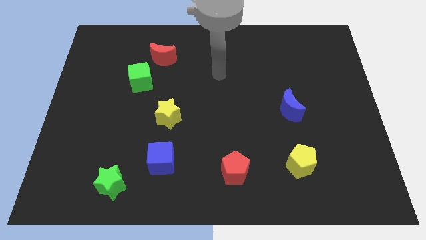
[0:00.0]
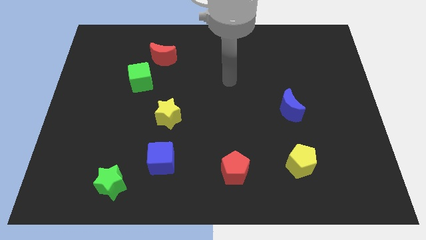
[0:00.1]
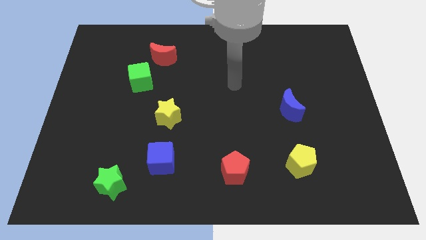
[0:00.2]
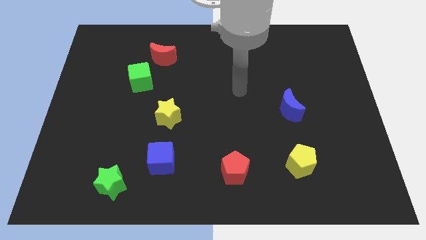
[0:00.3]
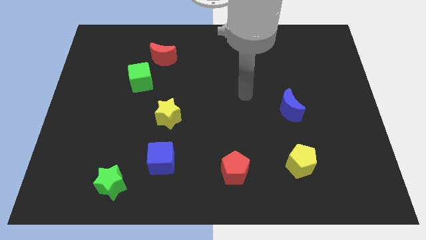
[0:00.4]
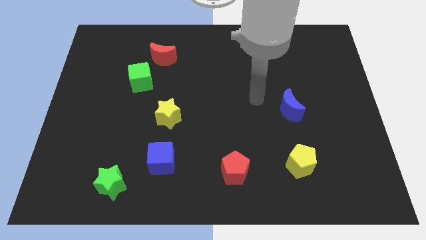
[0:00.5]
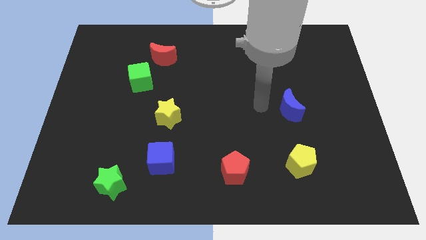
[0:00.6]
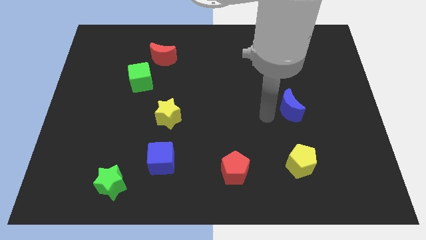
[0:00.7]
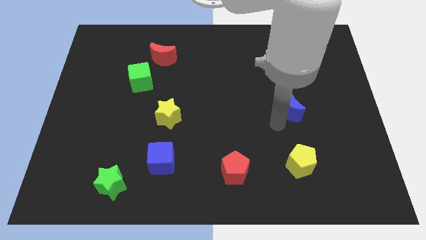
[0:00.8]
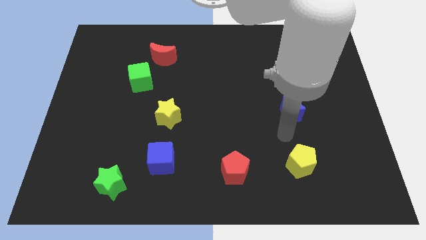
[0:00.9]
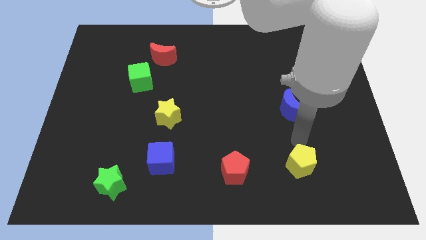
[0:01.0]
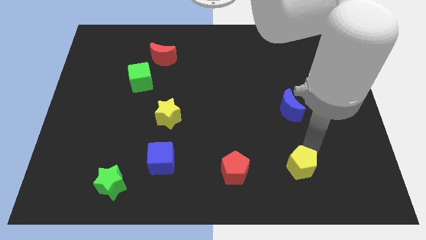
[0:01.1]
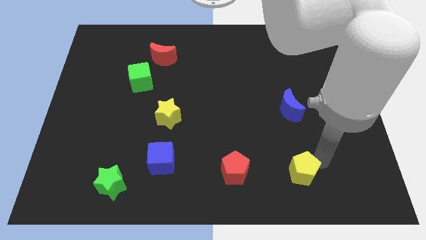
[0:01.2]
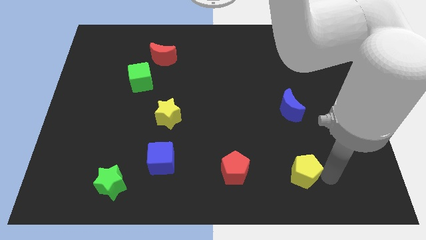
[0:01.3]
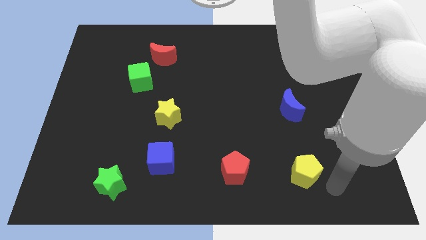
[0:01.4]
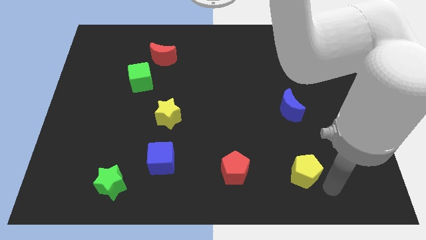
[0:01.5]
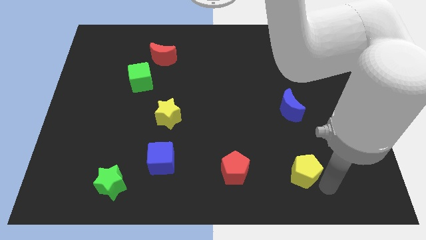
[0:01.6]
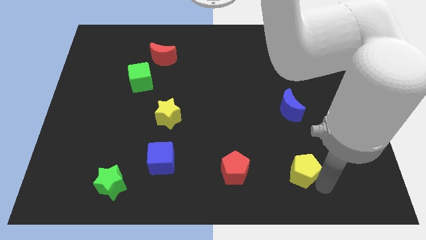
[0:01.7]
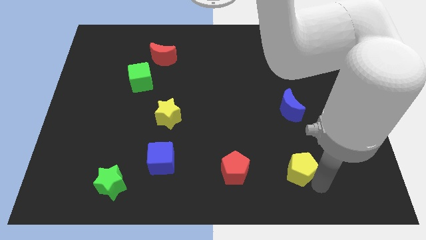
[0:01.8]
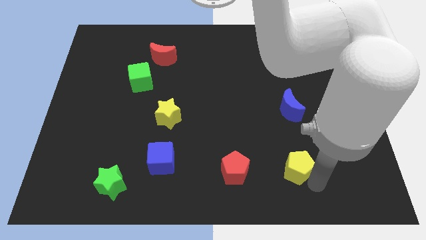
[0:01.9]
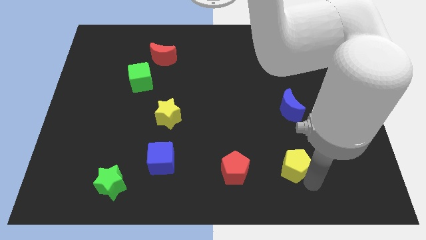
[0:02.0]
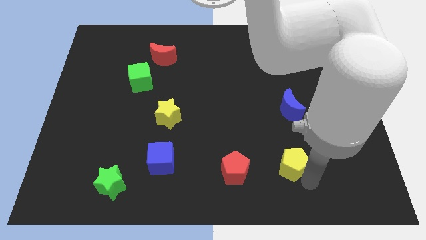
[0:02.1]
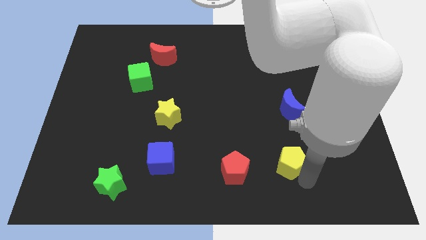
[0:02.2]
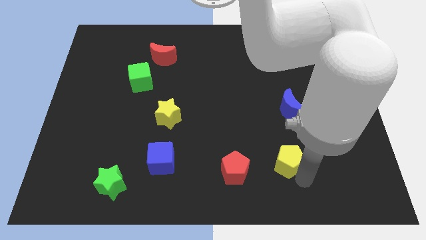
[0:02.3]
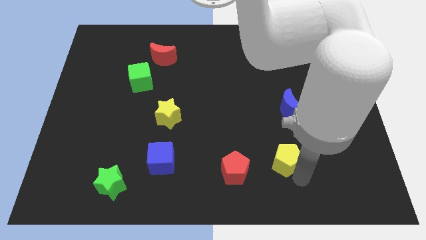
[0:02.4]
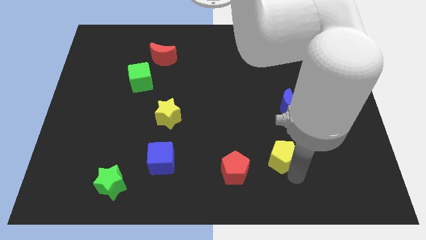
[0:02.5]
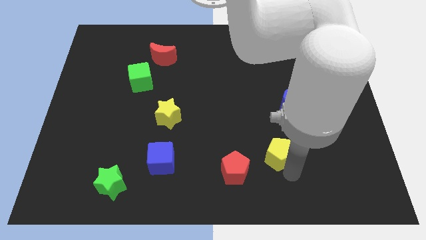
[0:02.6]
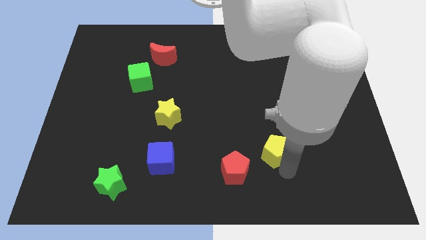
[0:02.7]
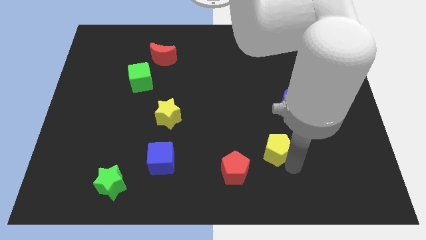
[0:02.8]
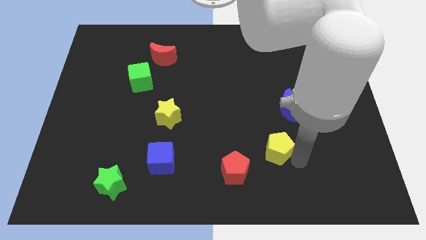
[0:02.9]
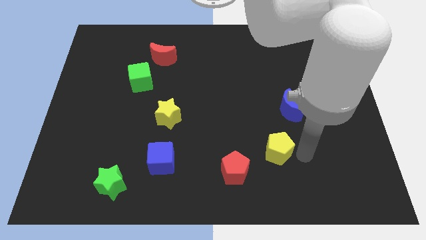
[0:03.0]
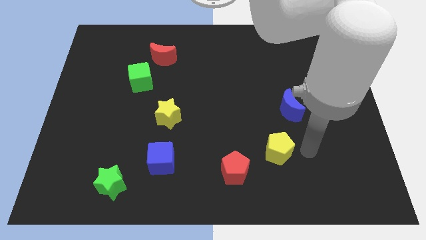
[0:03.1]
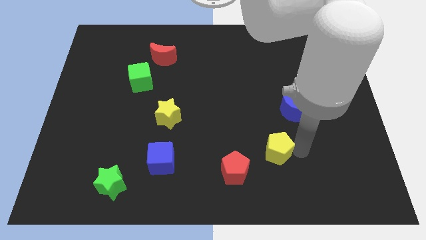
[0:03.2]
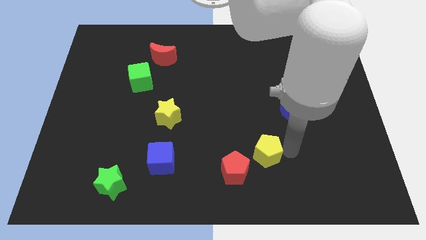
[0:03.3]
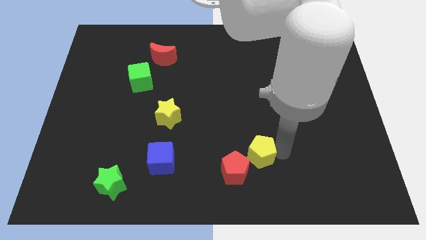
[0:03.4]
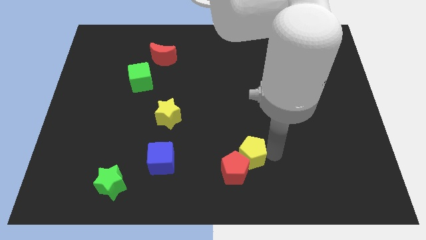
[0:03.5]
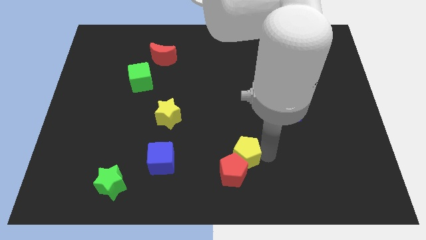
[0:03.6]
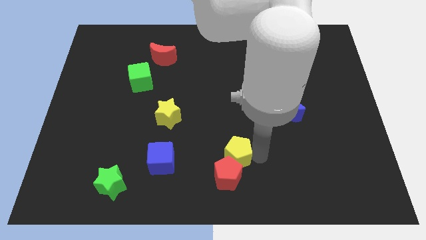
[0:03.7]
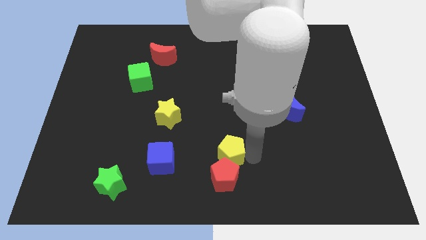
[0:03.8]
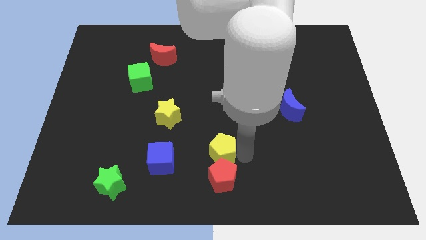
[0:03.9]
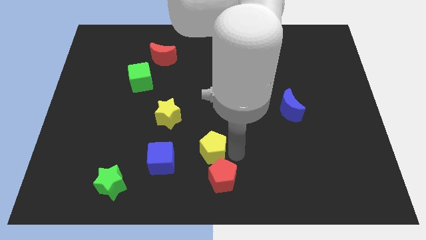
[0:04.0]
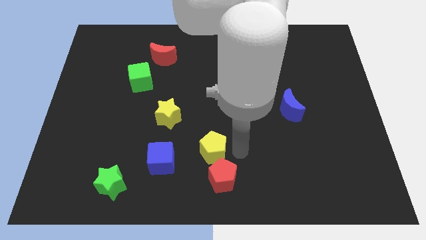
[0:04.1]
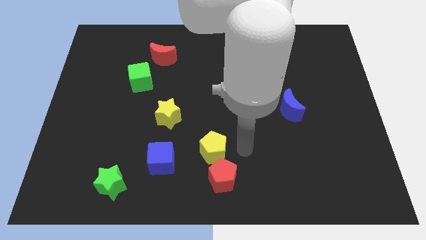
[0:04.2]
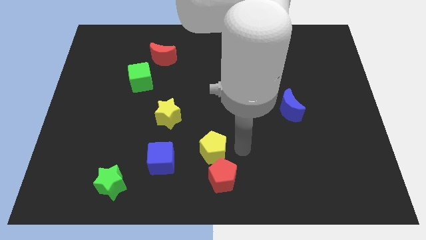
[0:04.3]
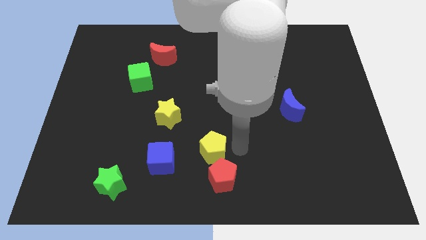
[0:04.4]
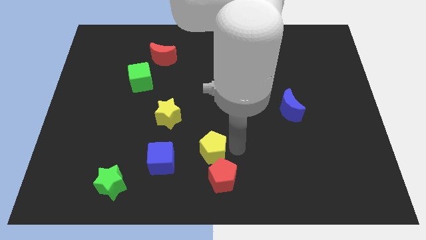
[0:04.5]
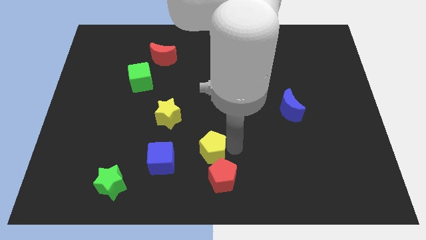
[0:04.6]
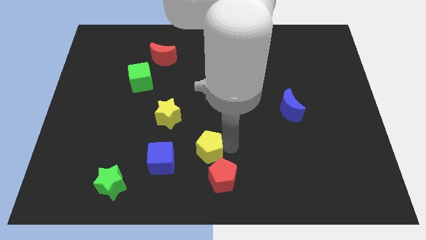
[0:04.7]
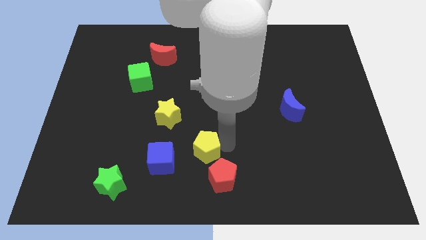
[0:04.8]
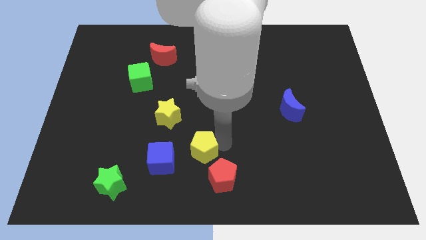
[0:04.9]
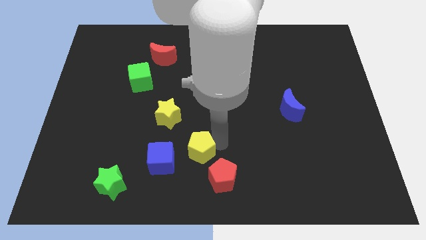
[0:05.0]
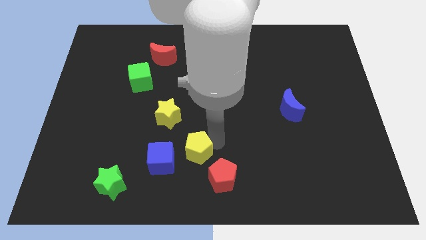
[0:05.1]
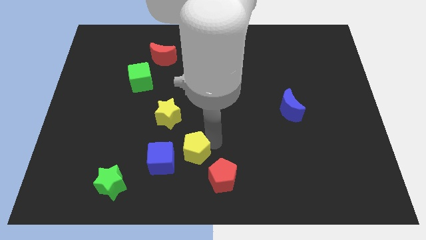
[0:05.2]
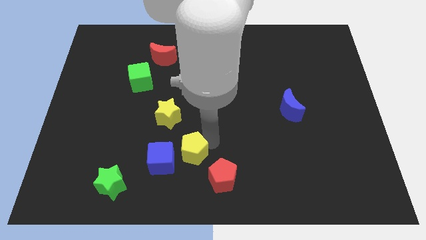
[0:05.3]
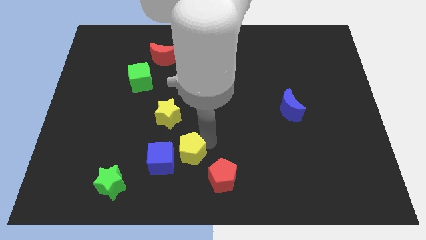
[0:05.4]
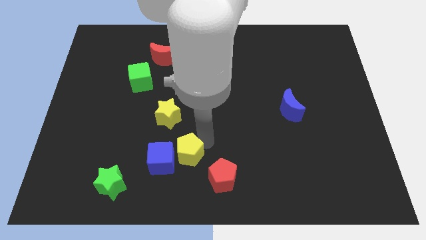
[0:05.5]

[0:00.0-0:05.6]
move the yellow pentagon towards the blue cube

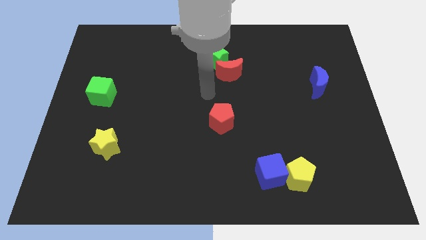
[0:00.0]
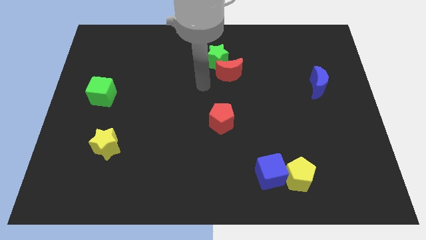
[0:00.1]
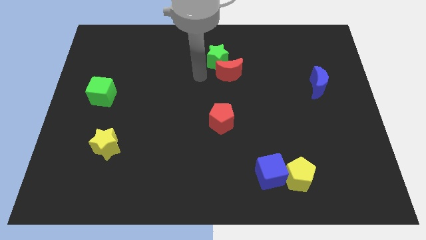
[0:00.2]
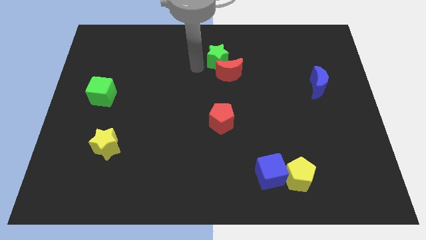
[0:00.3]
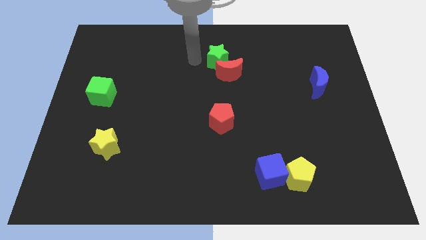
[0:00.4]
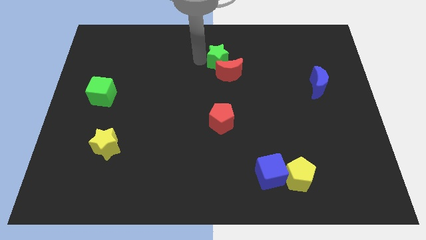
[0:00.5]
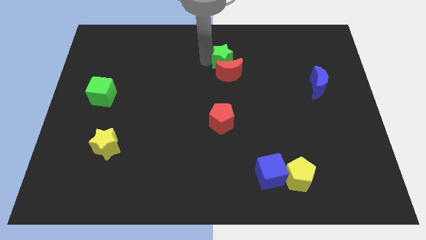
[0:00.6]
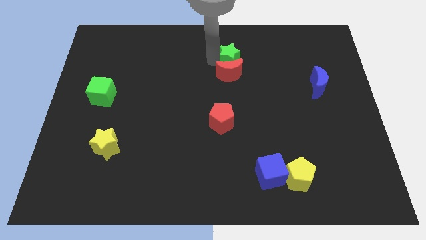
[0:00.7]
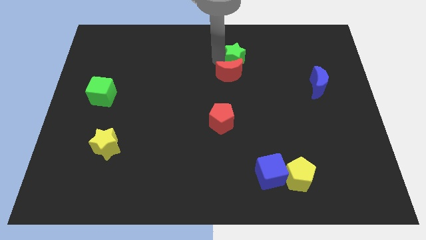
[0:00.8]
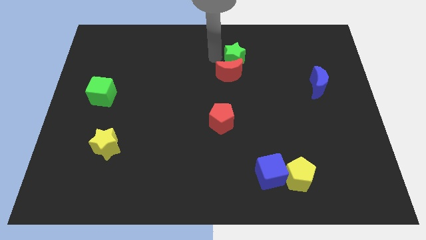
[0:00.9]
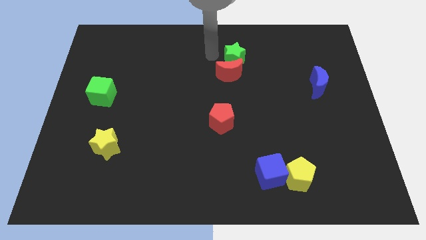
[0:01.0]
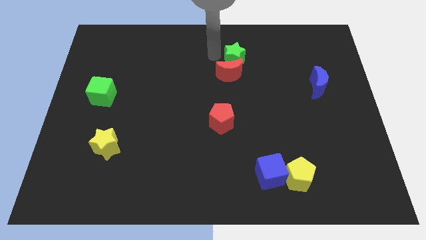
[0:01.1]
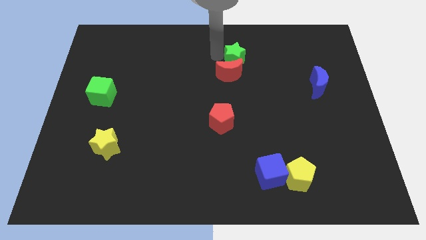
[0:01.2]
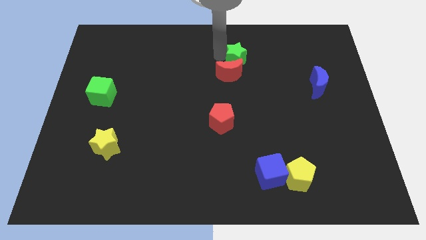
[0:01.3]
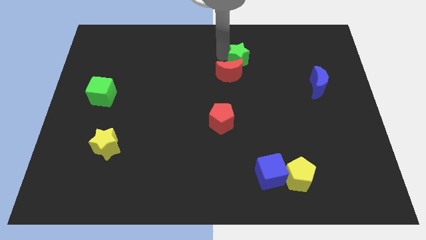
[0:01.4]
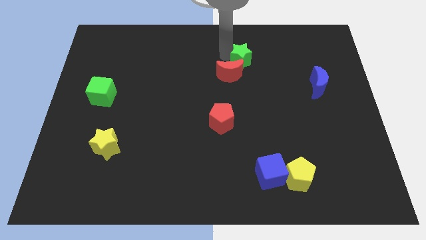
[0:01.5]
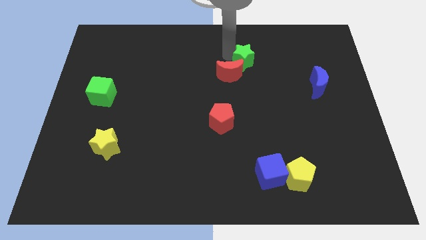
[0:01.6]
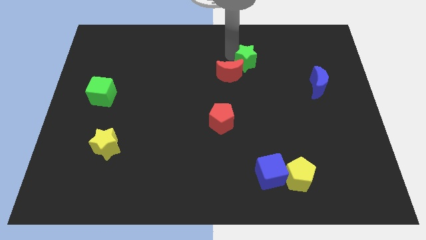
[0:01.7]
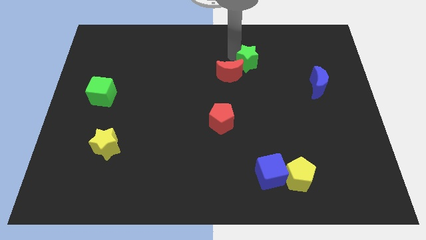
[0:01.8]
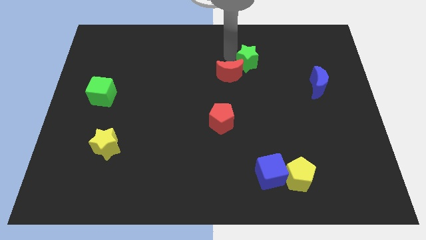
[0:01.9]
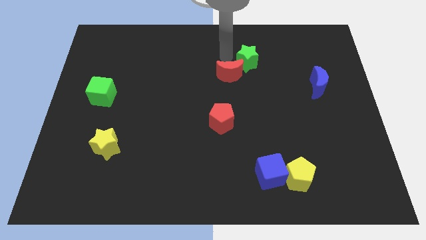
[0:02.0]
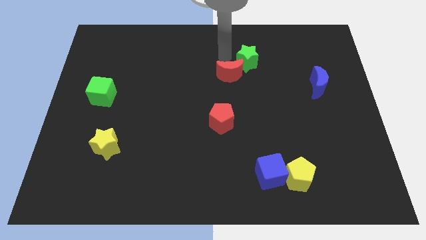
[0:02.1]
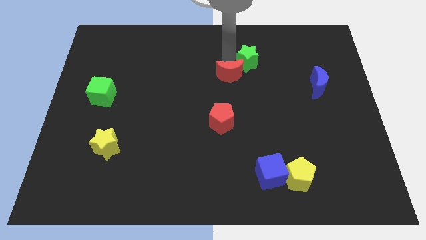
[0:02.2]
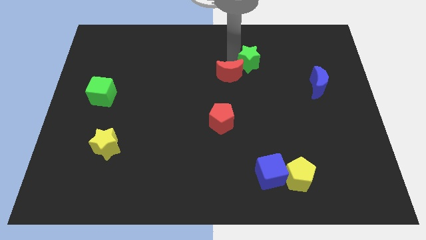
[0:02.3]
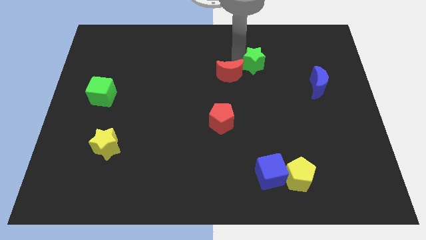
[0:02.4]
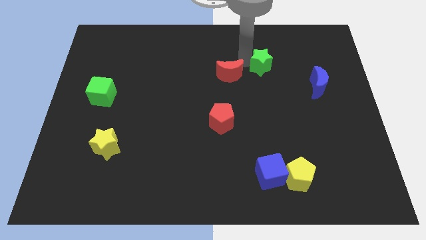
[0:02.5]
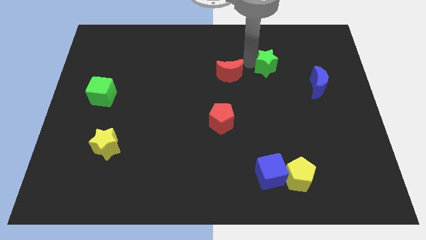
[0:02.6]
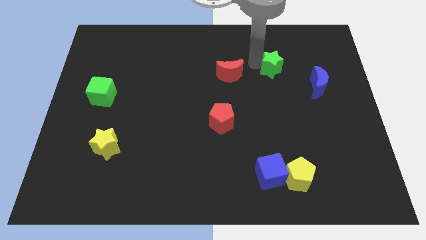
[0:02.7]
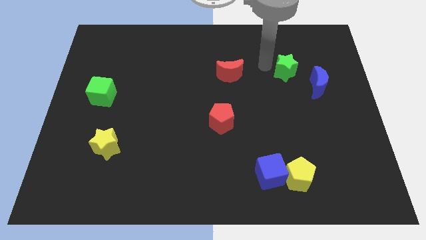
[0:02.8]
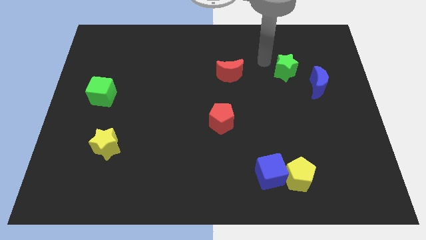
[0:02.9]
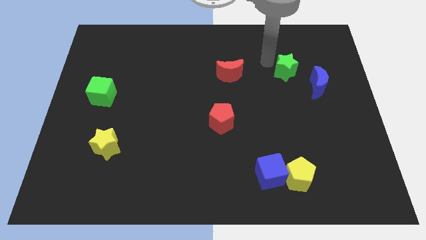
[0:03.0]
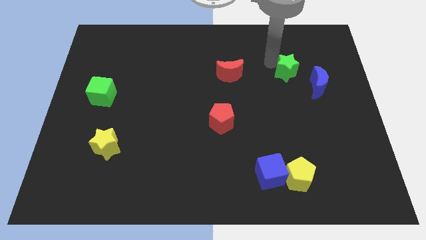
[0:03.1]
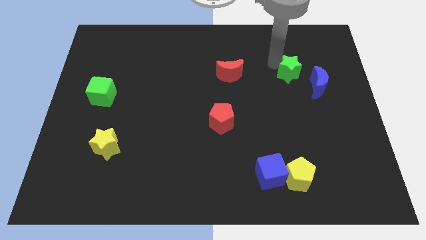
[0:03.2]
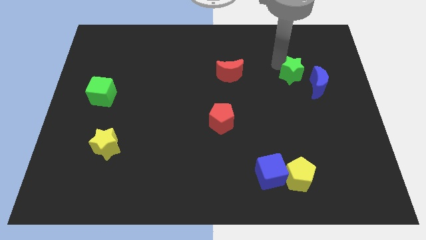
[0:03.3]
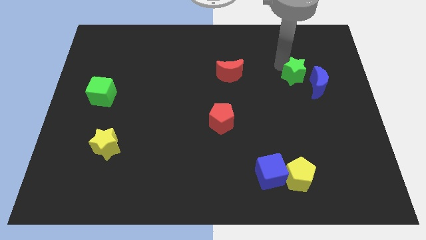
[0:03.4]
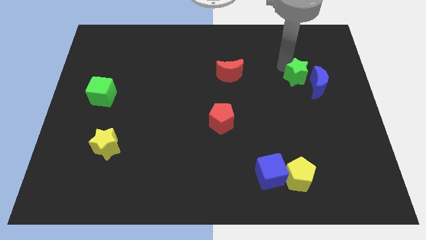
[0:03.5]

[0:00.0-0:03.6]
put the green star towards the blue moon
